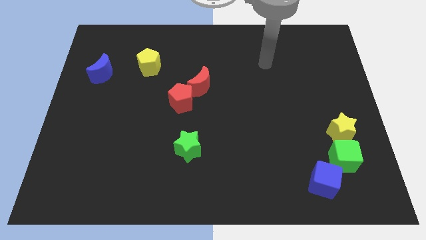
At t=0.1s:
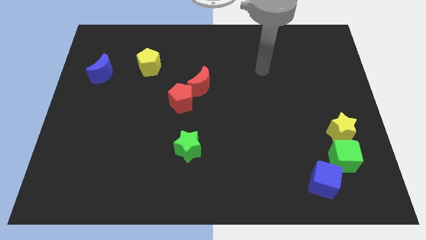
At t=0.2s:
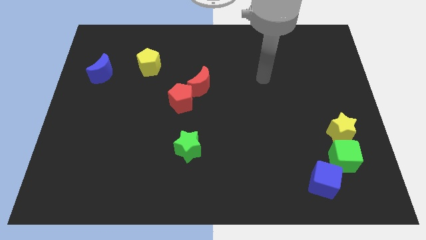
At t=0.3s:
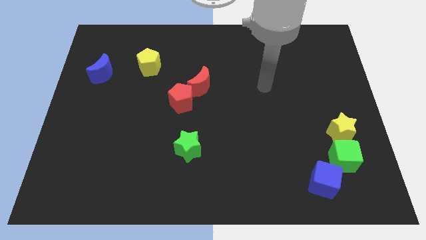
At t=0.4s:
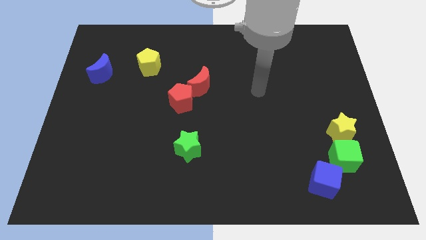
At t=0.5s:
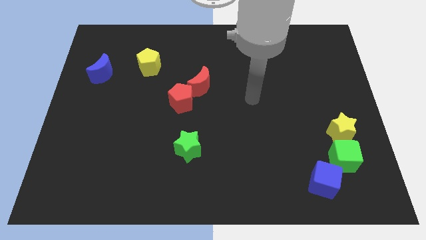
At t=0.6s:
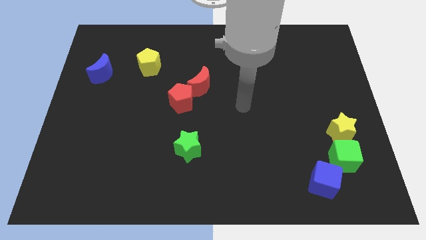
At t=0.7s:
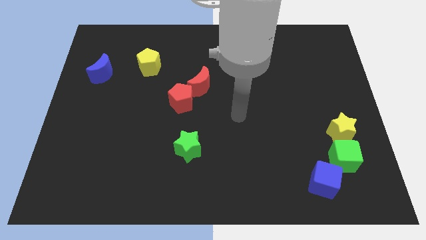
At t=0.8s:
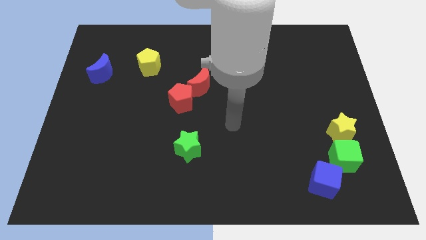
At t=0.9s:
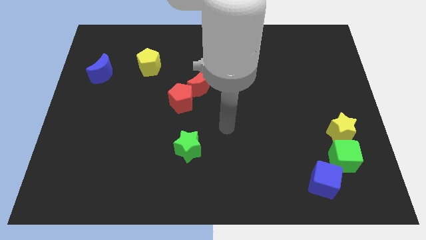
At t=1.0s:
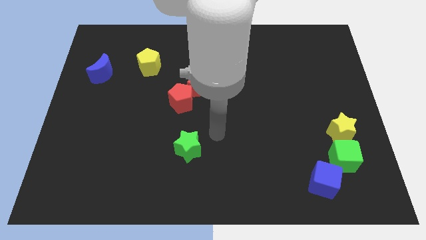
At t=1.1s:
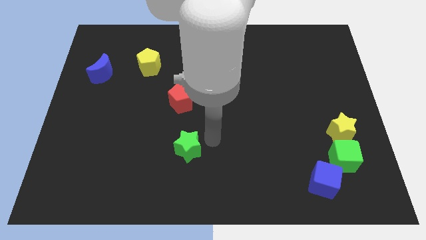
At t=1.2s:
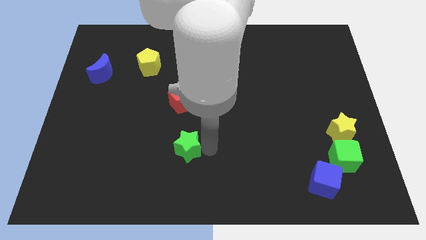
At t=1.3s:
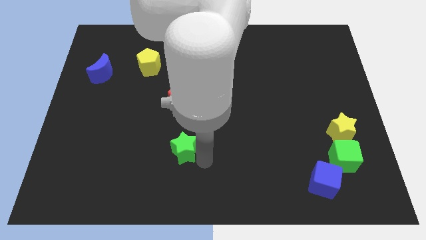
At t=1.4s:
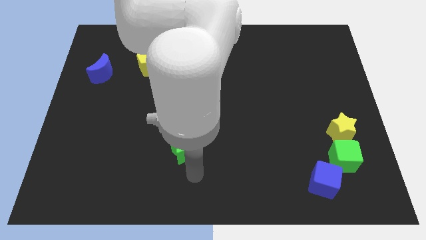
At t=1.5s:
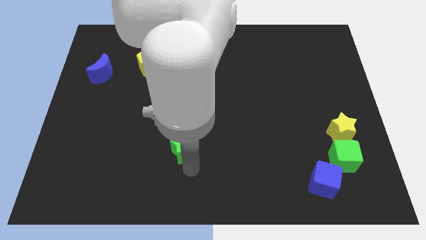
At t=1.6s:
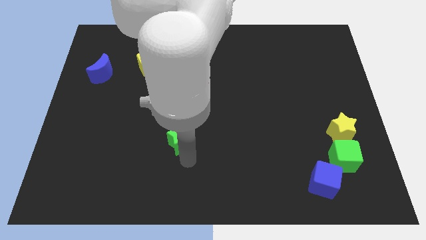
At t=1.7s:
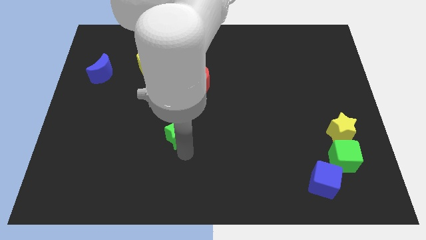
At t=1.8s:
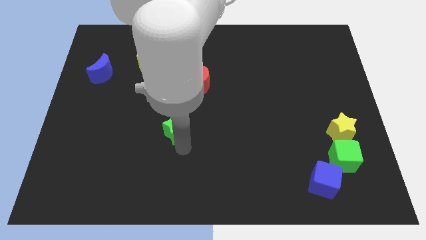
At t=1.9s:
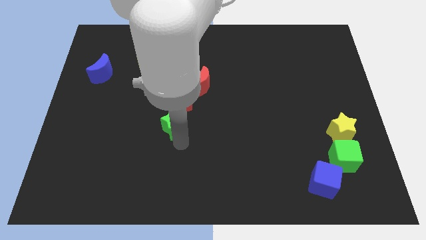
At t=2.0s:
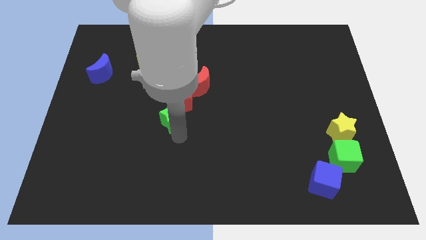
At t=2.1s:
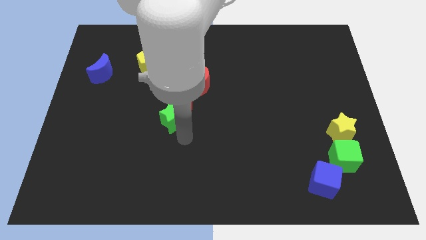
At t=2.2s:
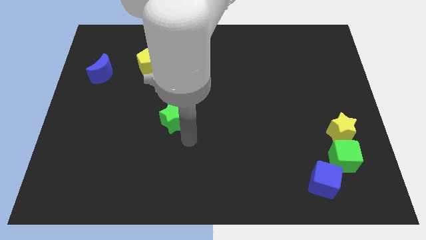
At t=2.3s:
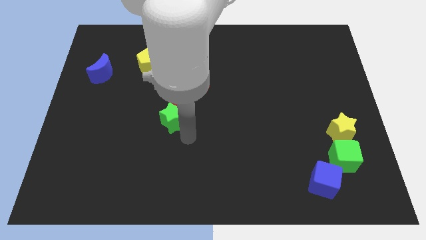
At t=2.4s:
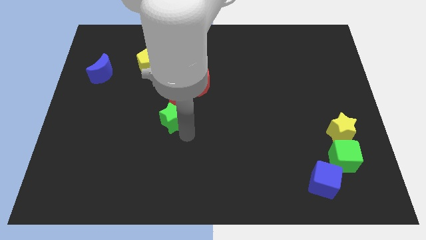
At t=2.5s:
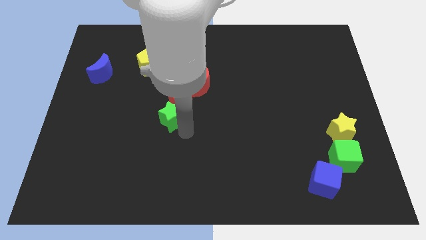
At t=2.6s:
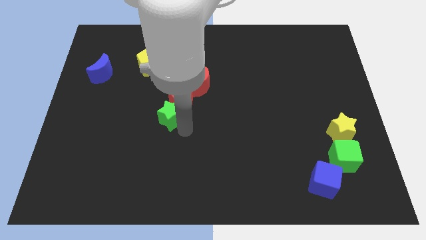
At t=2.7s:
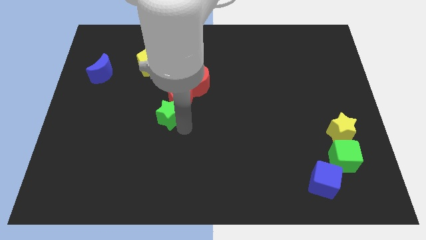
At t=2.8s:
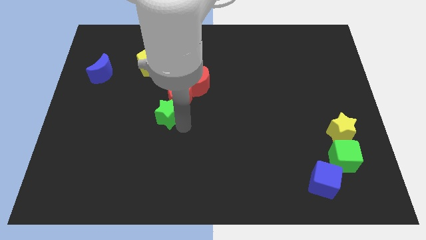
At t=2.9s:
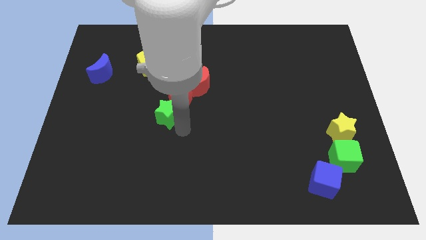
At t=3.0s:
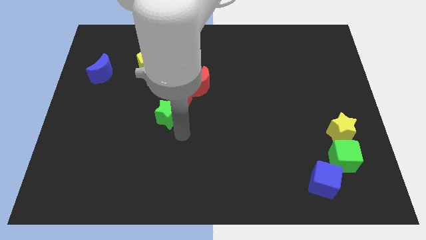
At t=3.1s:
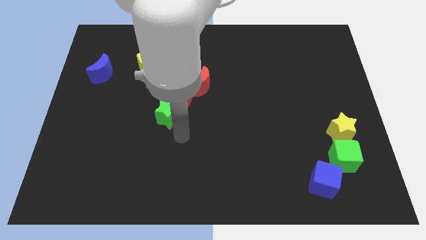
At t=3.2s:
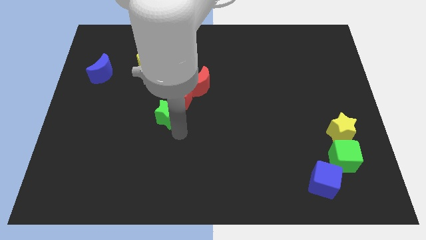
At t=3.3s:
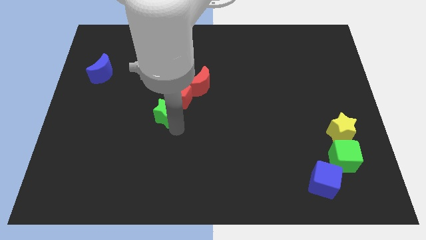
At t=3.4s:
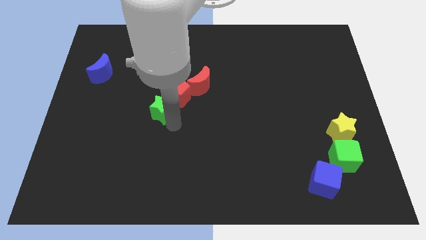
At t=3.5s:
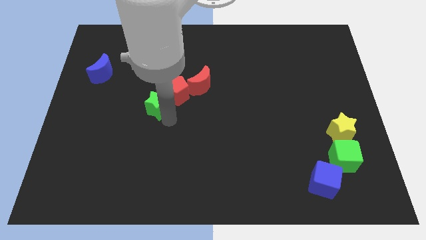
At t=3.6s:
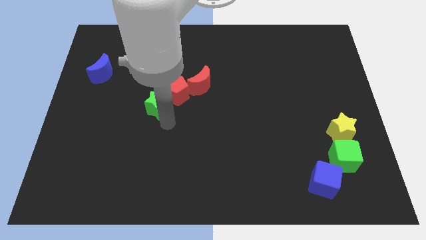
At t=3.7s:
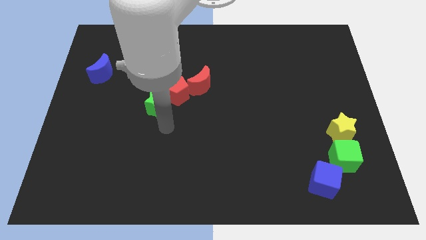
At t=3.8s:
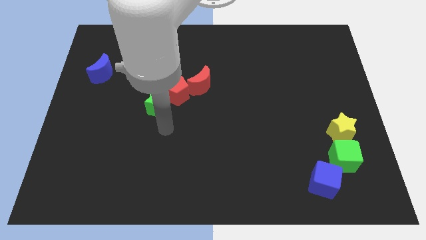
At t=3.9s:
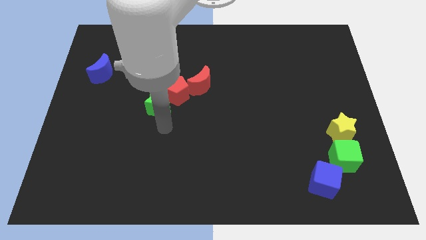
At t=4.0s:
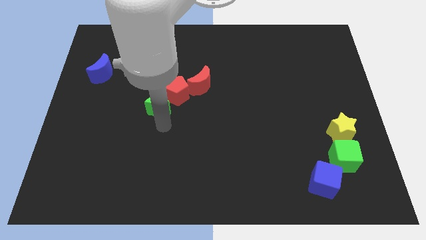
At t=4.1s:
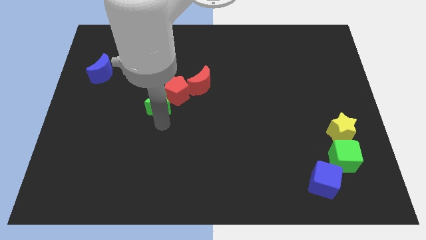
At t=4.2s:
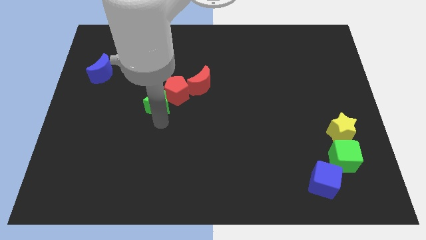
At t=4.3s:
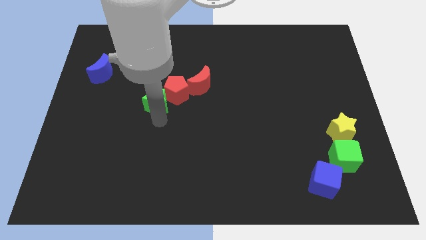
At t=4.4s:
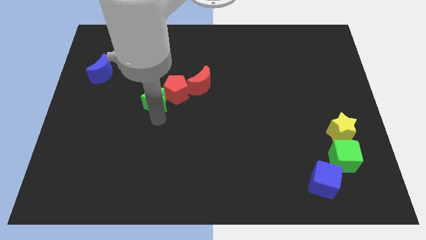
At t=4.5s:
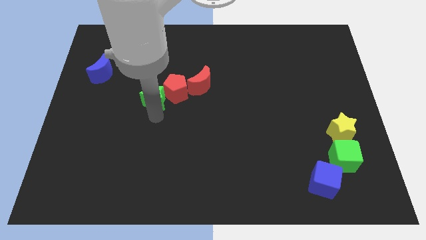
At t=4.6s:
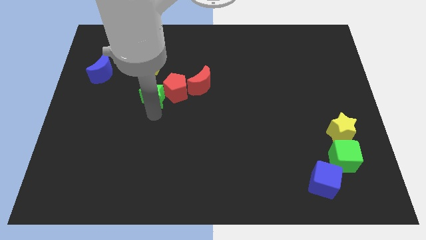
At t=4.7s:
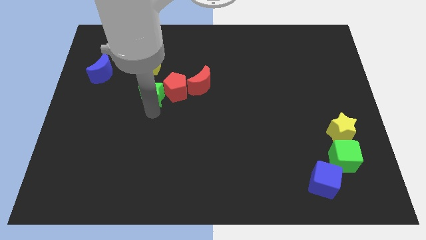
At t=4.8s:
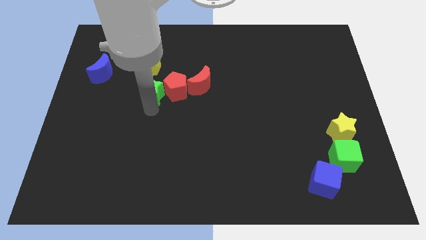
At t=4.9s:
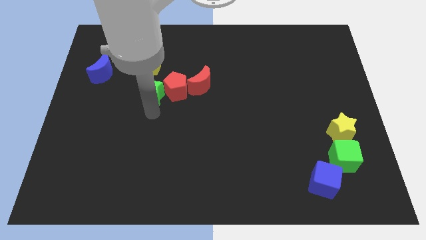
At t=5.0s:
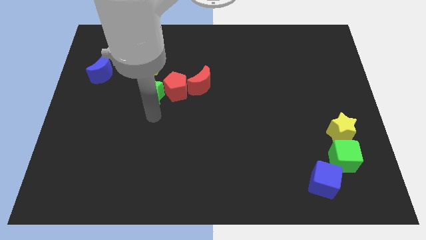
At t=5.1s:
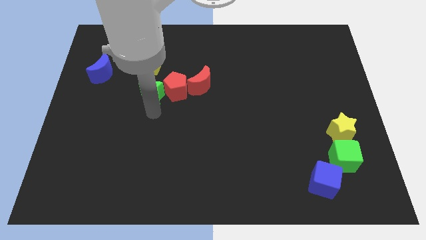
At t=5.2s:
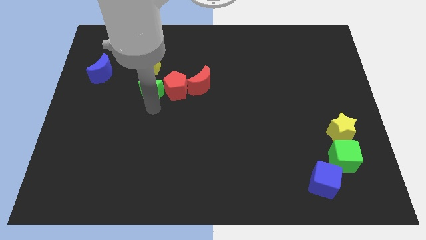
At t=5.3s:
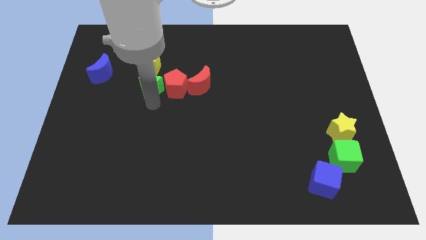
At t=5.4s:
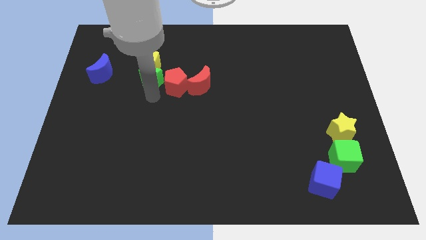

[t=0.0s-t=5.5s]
put the green star next to the yellow pentagon

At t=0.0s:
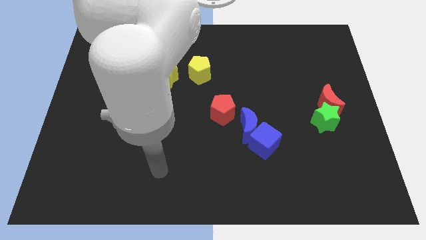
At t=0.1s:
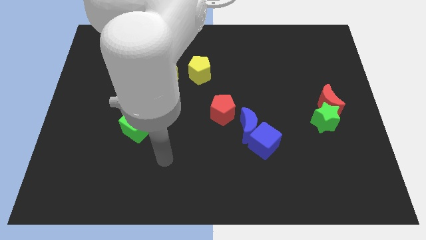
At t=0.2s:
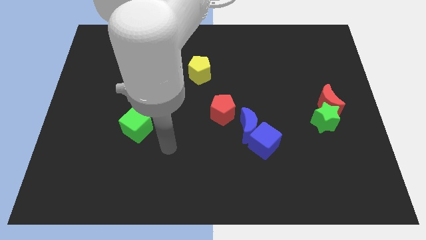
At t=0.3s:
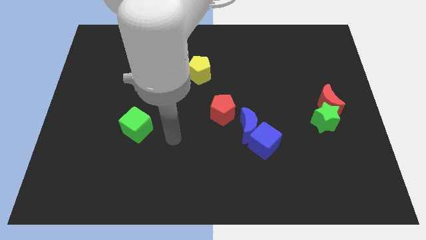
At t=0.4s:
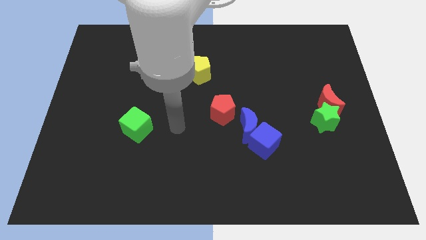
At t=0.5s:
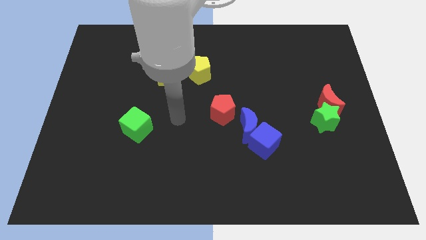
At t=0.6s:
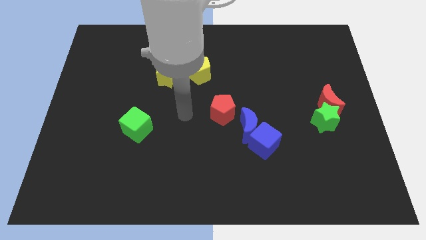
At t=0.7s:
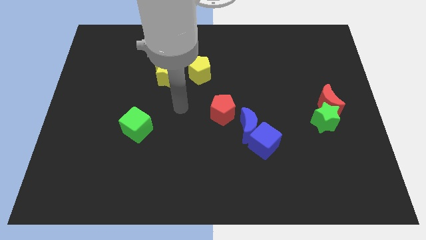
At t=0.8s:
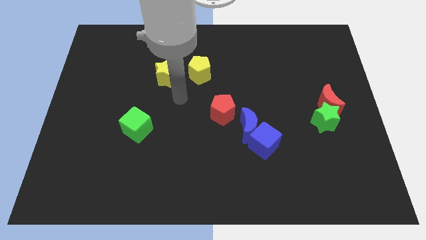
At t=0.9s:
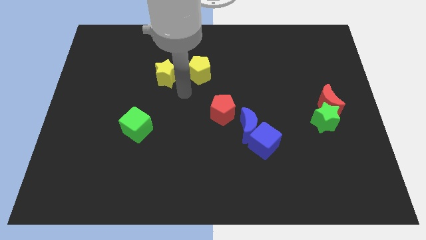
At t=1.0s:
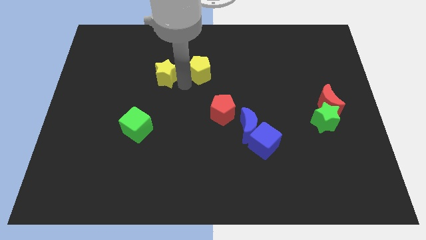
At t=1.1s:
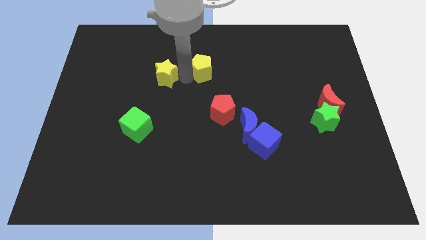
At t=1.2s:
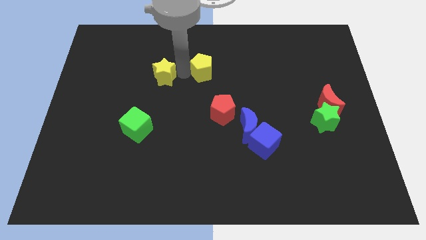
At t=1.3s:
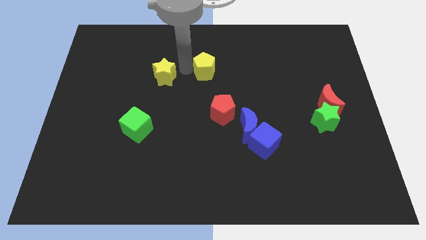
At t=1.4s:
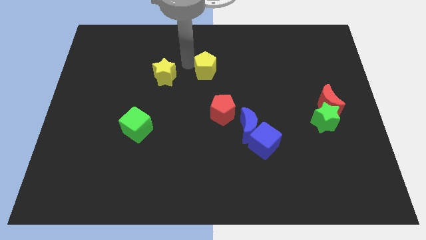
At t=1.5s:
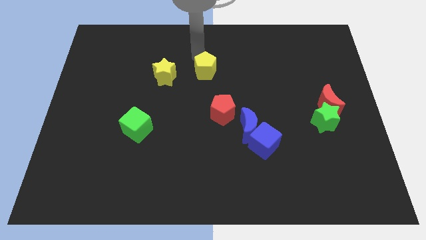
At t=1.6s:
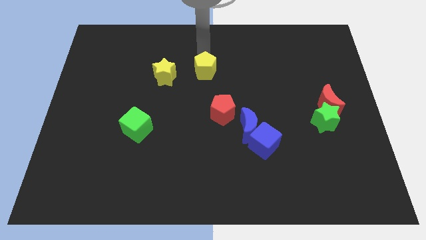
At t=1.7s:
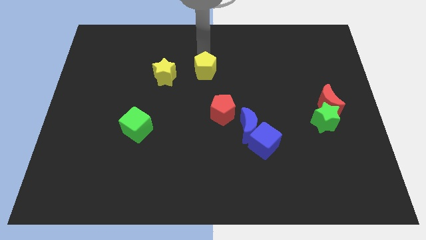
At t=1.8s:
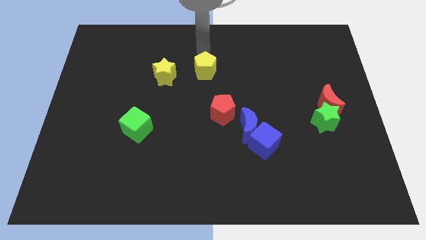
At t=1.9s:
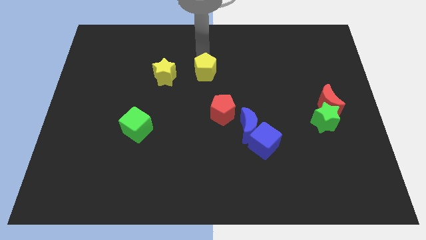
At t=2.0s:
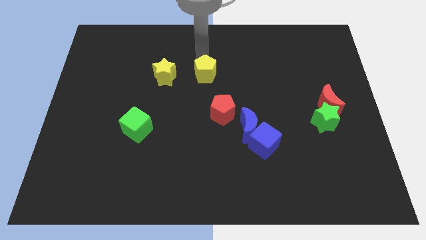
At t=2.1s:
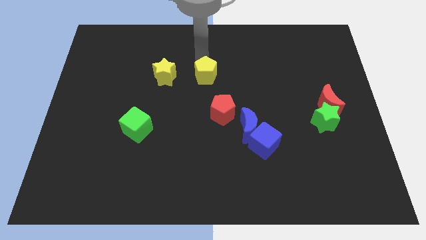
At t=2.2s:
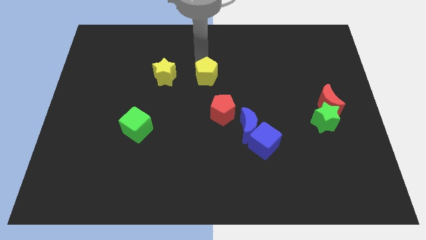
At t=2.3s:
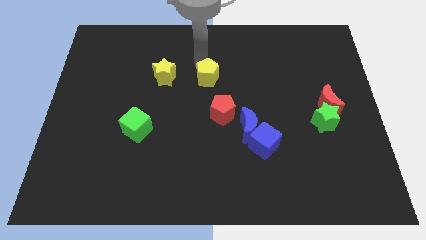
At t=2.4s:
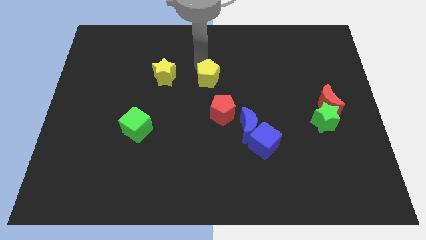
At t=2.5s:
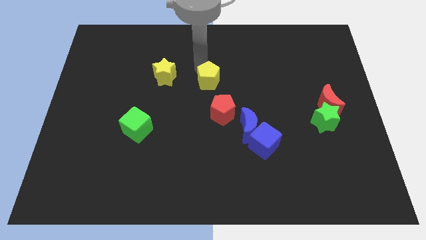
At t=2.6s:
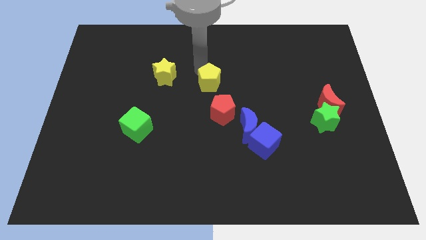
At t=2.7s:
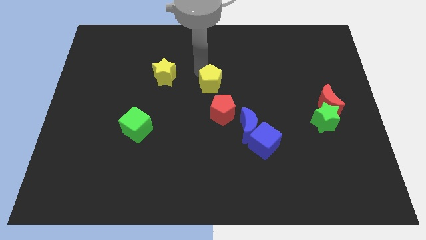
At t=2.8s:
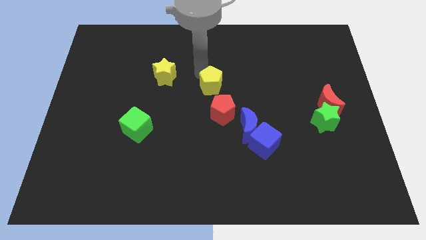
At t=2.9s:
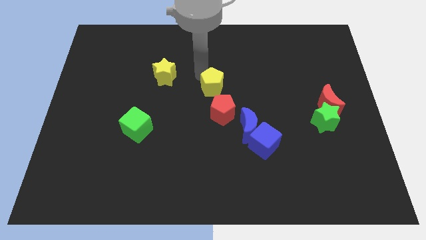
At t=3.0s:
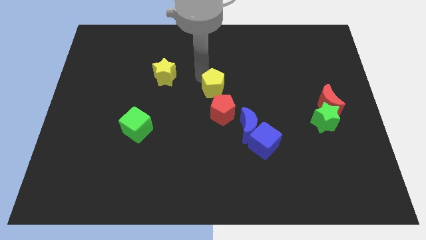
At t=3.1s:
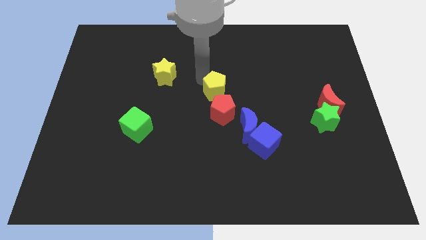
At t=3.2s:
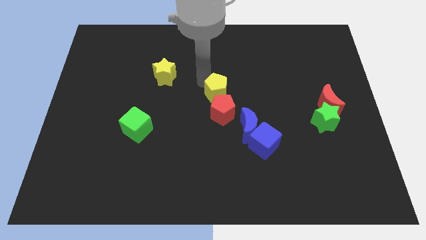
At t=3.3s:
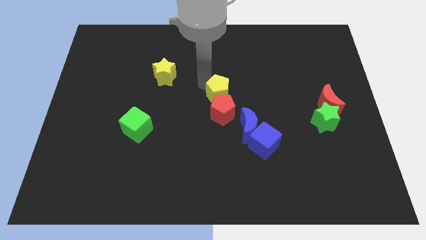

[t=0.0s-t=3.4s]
slide the yellow pentagon towards the red pentagon
